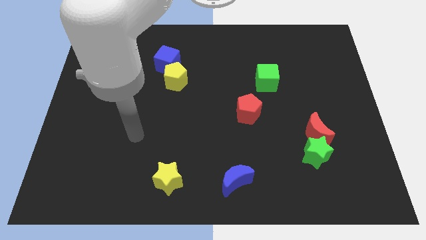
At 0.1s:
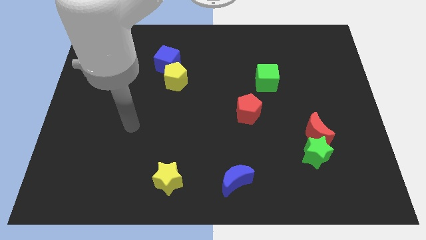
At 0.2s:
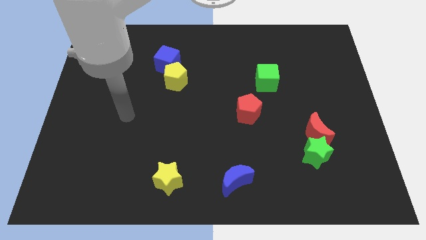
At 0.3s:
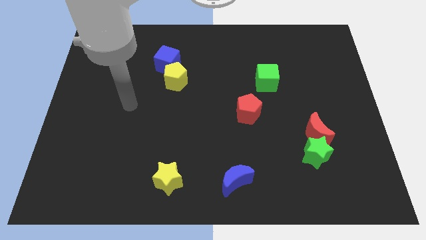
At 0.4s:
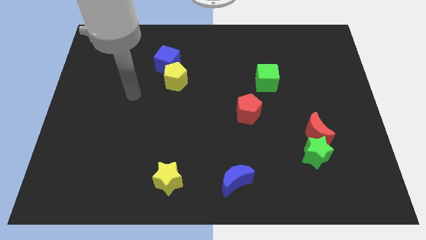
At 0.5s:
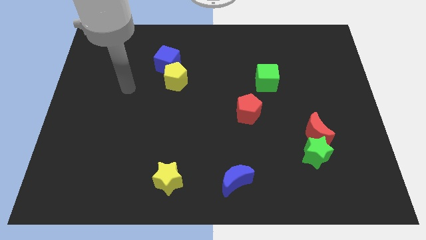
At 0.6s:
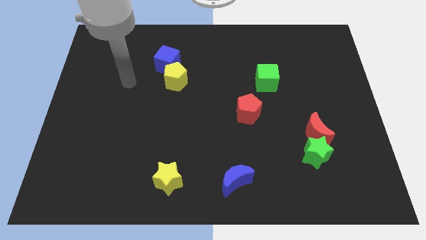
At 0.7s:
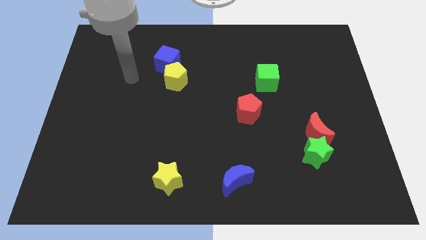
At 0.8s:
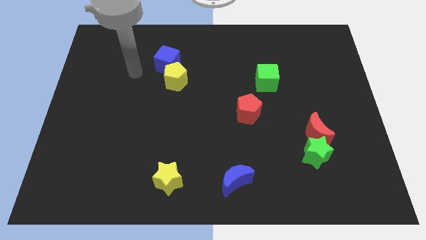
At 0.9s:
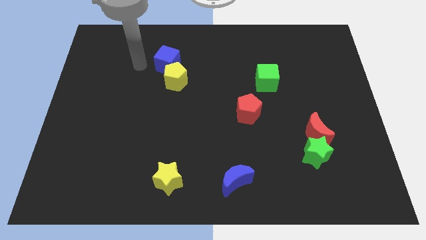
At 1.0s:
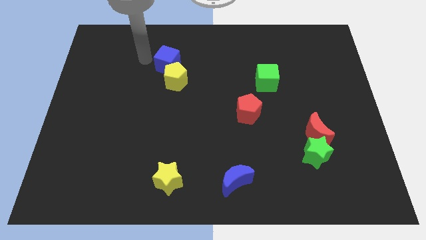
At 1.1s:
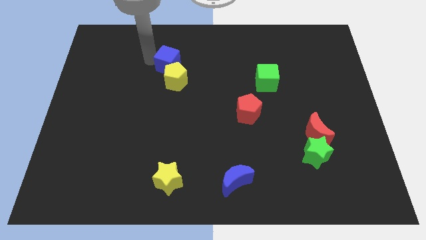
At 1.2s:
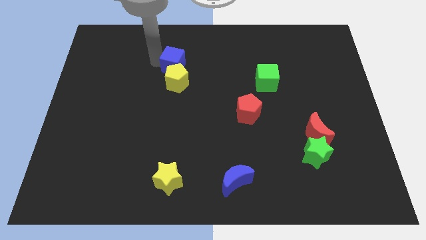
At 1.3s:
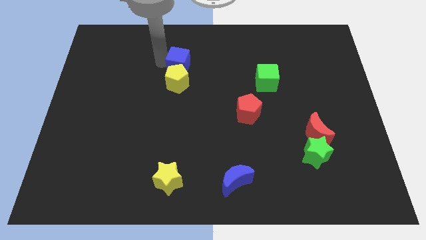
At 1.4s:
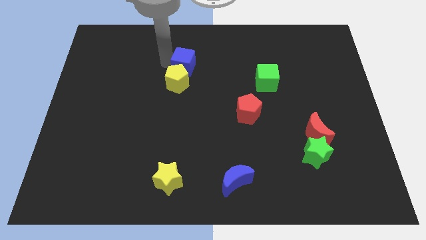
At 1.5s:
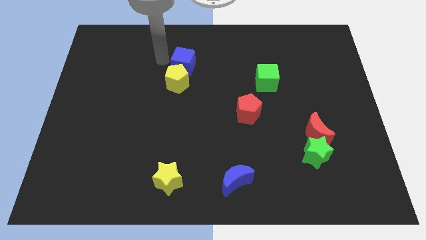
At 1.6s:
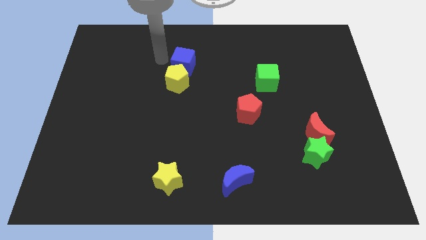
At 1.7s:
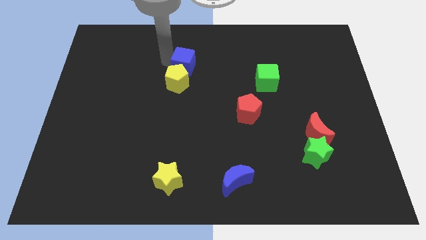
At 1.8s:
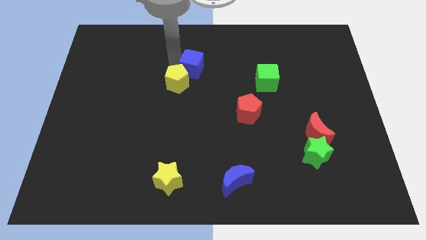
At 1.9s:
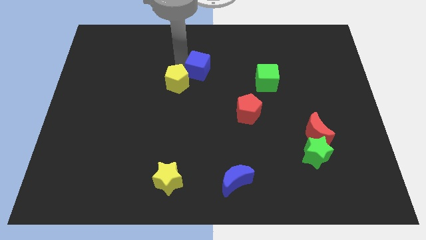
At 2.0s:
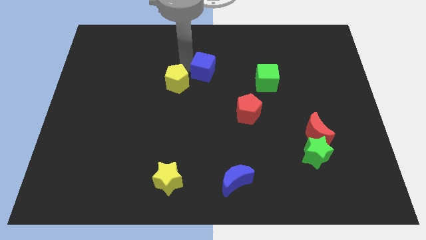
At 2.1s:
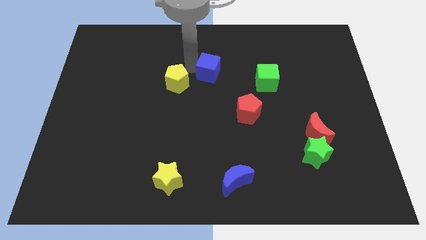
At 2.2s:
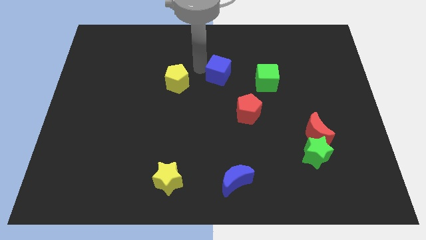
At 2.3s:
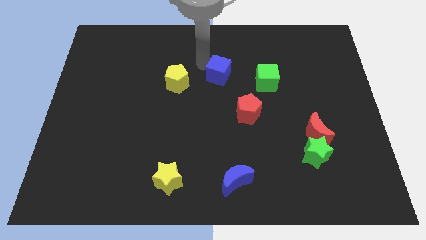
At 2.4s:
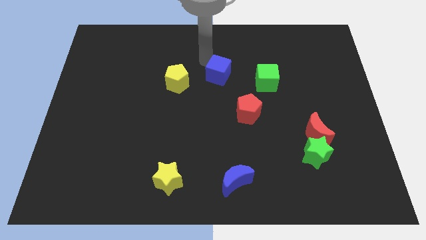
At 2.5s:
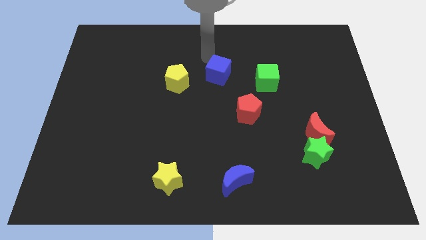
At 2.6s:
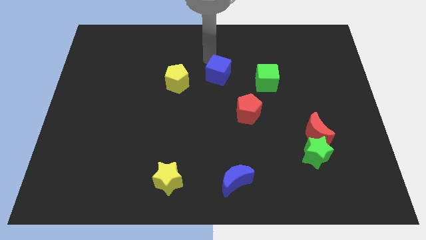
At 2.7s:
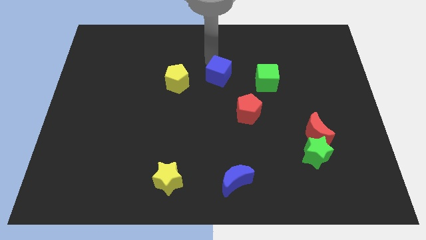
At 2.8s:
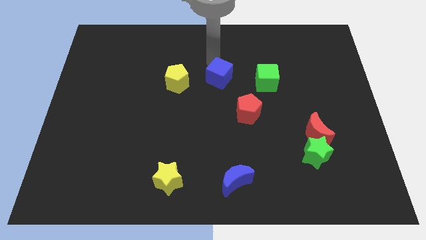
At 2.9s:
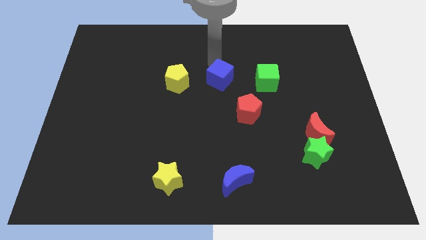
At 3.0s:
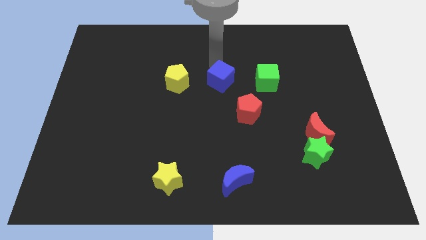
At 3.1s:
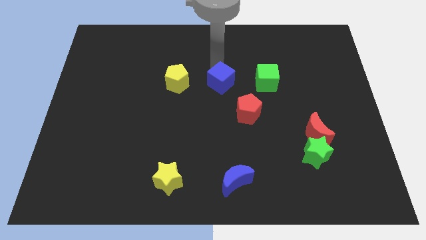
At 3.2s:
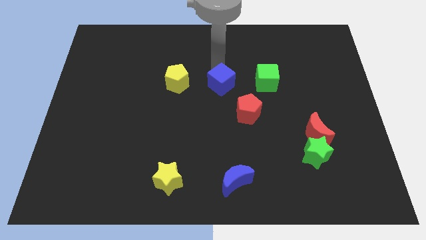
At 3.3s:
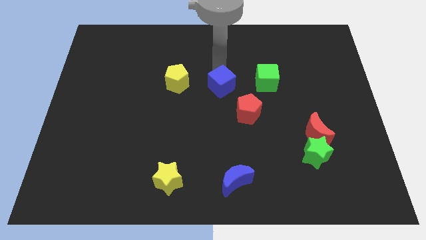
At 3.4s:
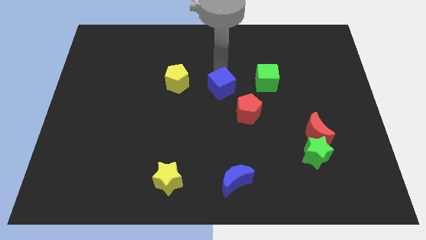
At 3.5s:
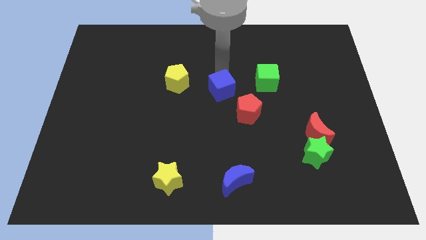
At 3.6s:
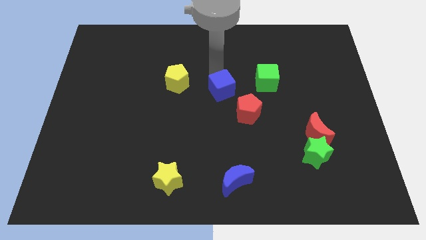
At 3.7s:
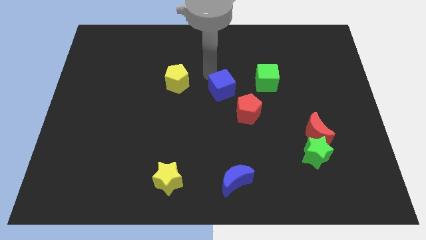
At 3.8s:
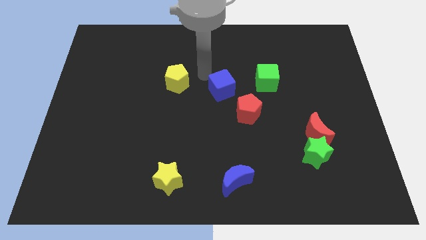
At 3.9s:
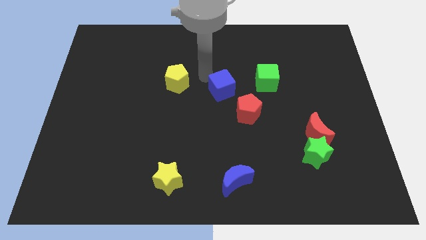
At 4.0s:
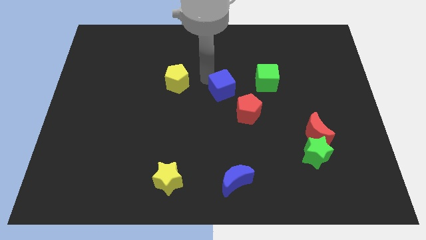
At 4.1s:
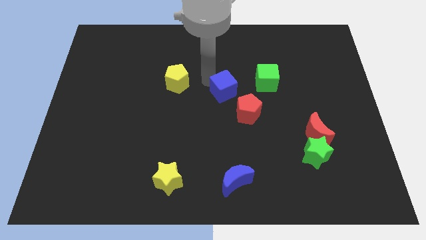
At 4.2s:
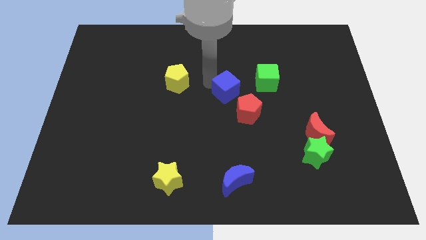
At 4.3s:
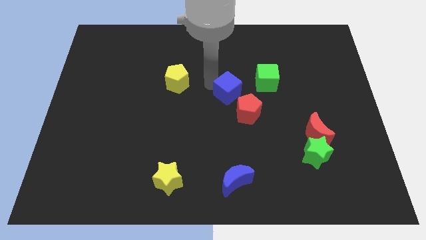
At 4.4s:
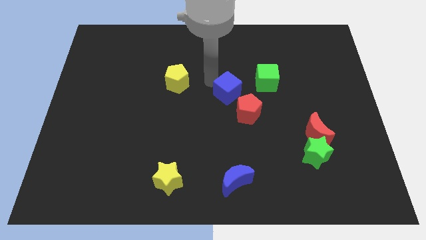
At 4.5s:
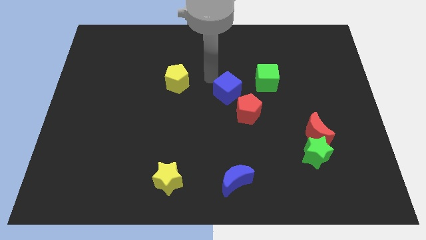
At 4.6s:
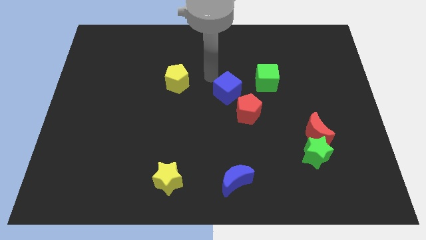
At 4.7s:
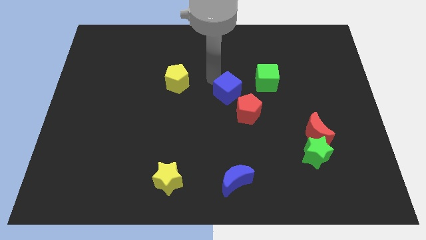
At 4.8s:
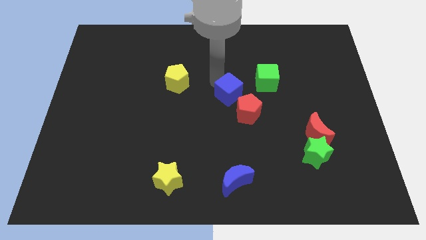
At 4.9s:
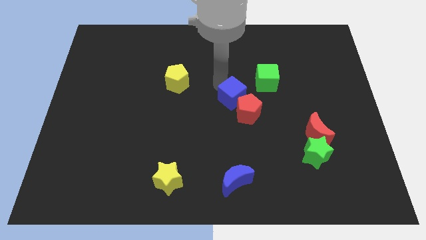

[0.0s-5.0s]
put the blue cube towards the red pentagon

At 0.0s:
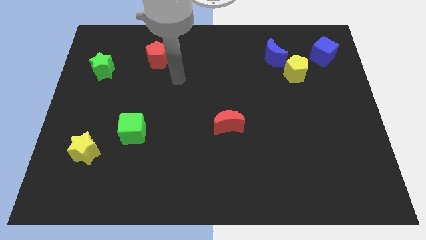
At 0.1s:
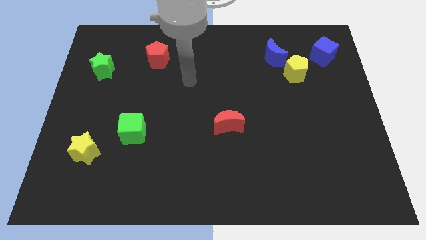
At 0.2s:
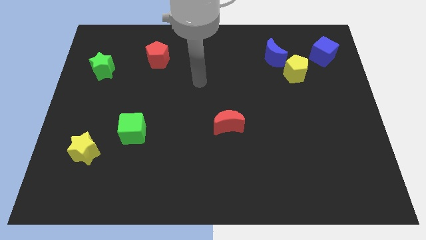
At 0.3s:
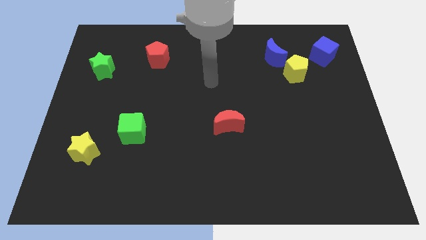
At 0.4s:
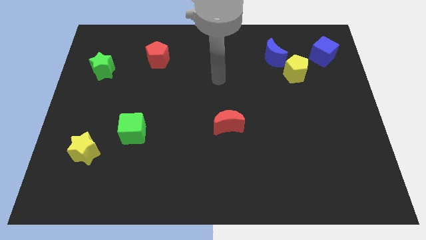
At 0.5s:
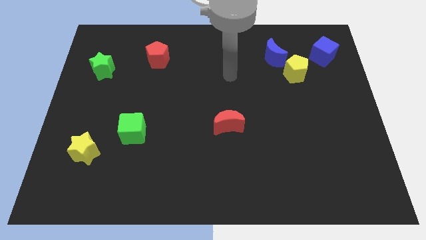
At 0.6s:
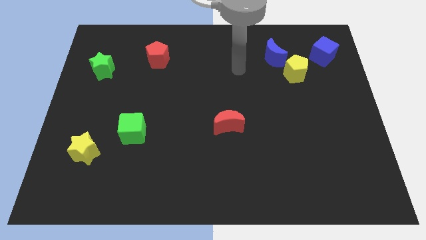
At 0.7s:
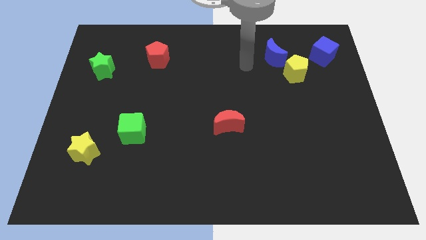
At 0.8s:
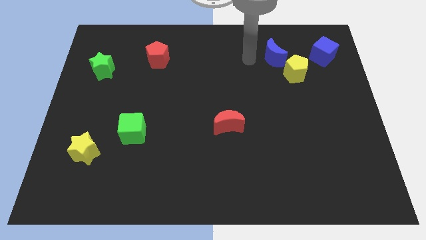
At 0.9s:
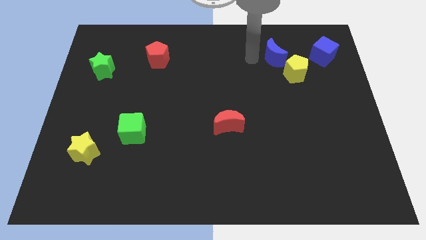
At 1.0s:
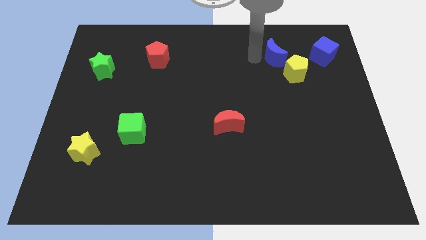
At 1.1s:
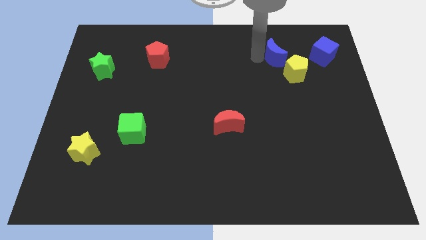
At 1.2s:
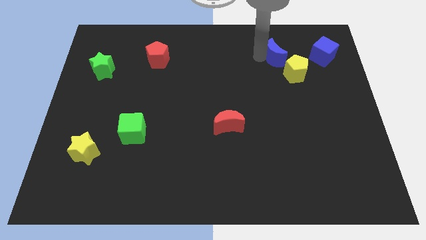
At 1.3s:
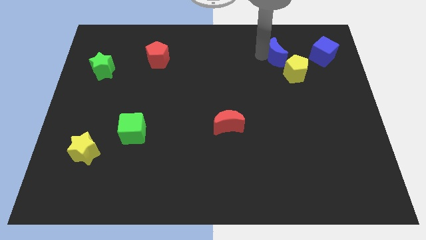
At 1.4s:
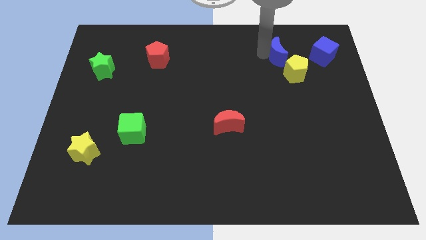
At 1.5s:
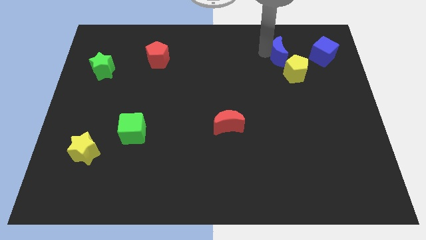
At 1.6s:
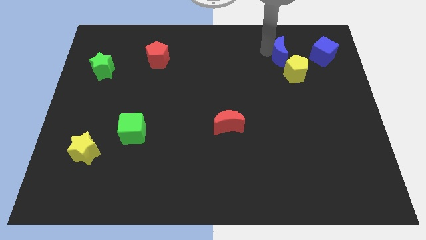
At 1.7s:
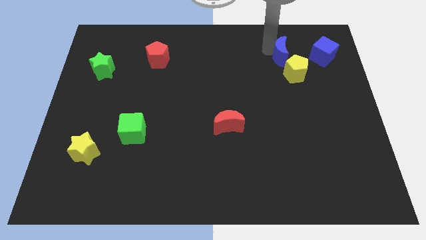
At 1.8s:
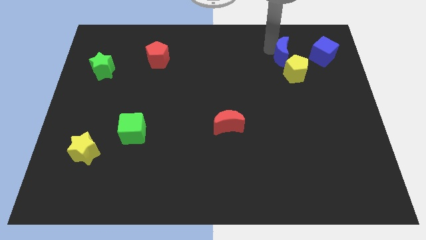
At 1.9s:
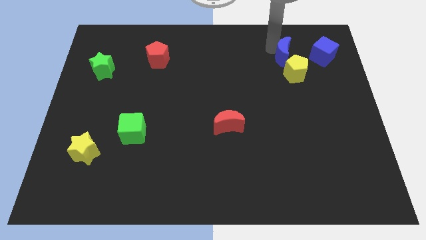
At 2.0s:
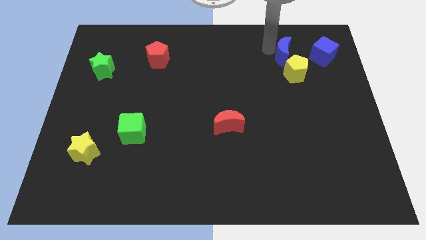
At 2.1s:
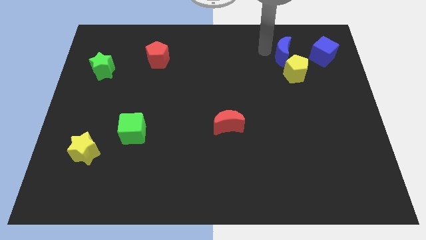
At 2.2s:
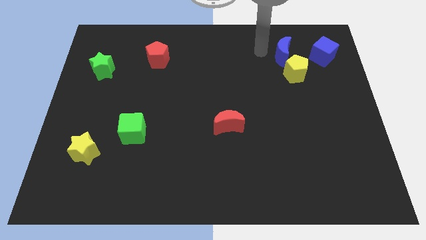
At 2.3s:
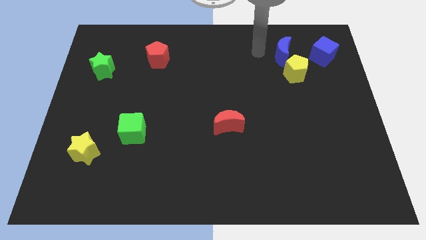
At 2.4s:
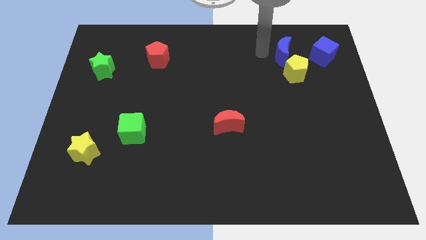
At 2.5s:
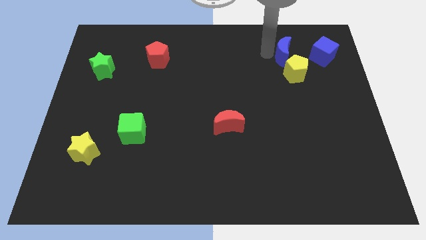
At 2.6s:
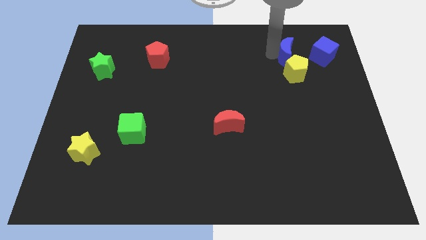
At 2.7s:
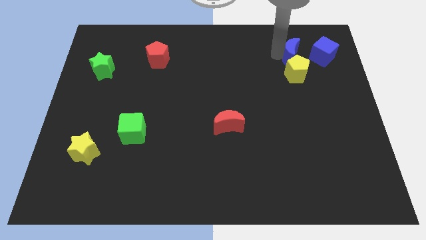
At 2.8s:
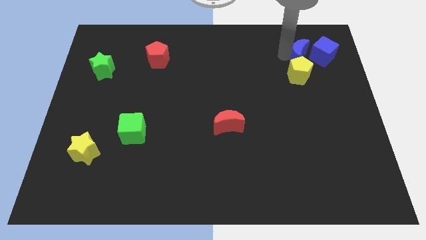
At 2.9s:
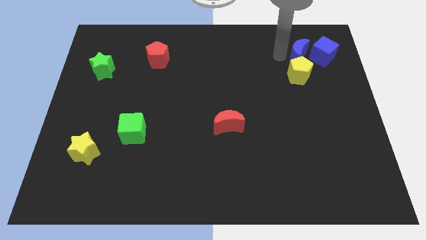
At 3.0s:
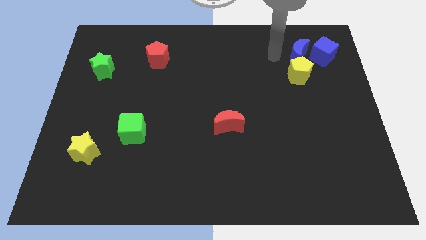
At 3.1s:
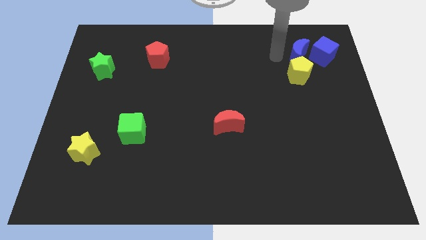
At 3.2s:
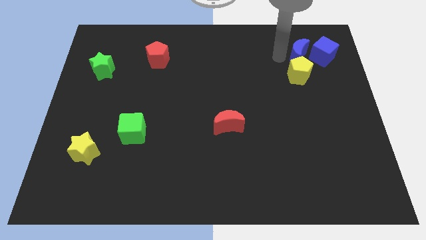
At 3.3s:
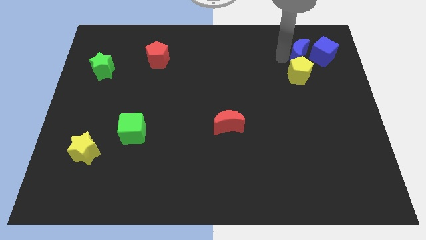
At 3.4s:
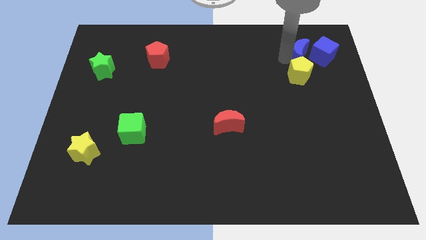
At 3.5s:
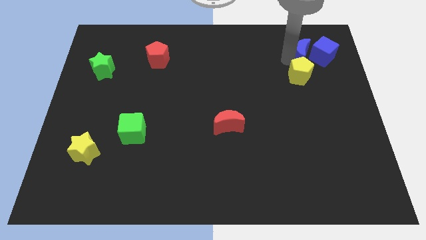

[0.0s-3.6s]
put the blue moon close to the blue cube
